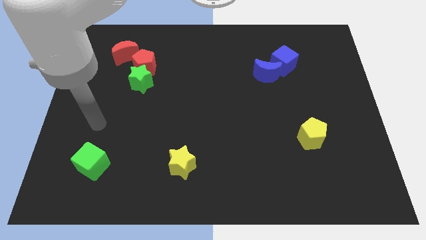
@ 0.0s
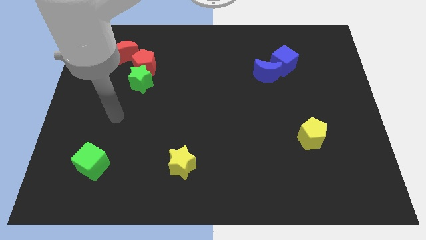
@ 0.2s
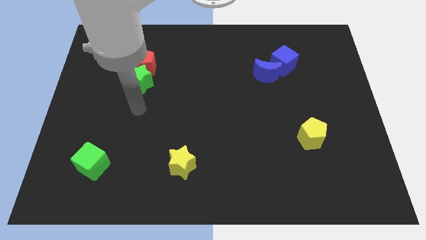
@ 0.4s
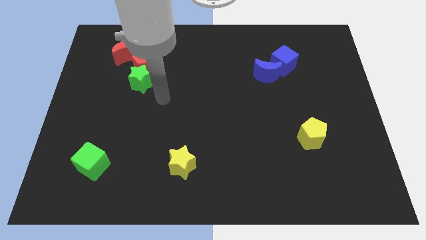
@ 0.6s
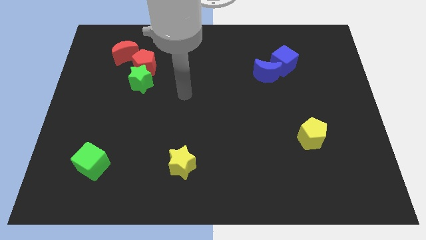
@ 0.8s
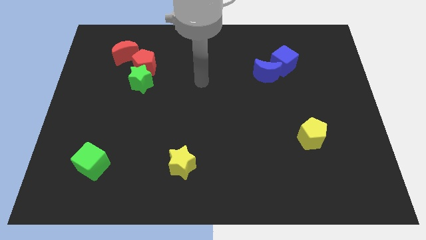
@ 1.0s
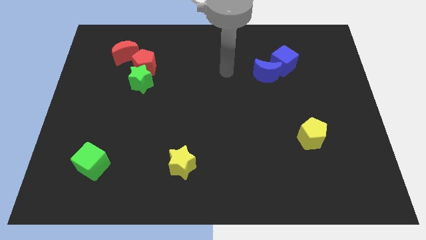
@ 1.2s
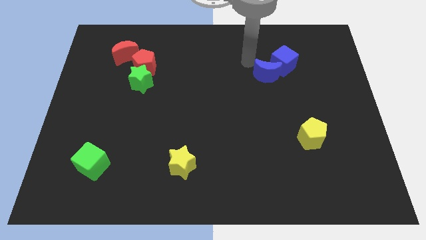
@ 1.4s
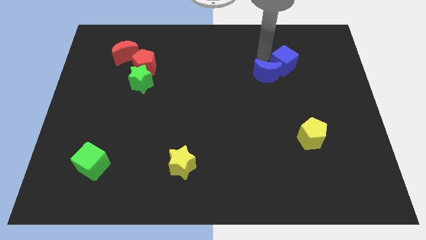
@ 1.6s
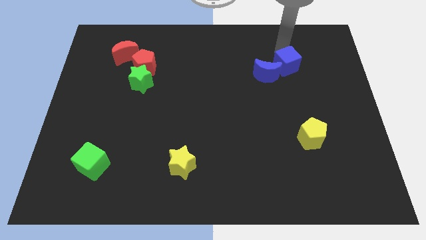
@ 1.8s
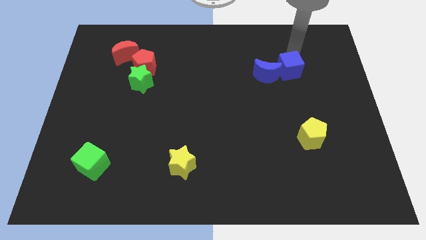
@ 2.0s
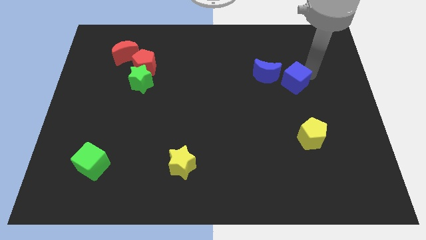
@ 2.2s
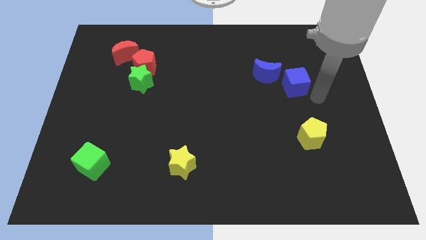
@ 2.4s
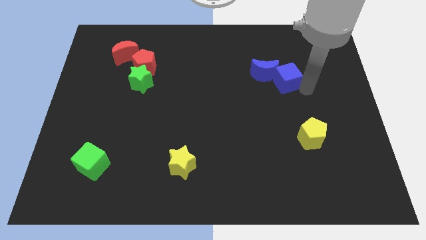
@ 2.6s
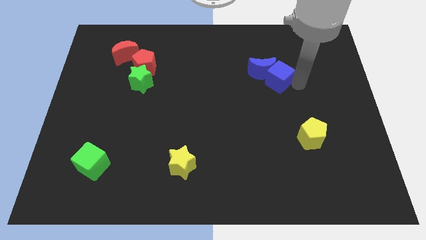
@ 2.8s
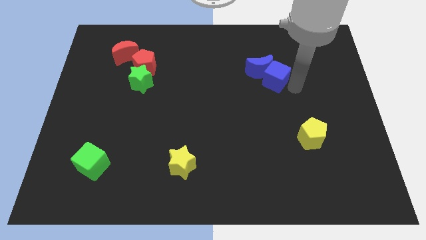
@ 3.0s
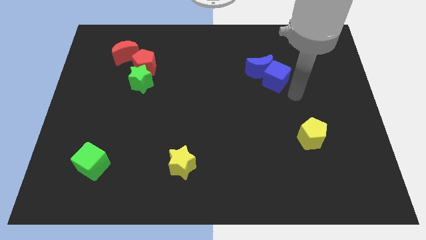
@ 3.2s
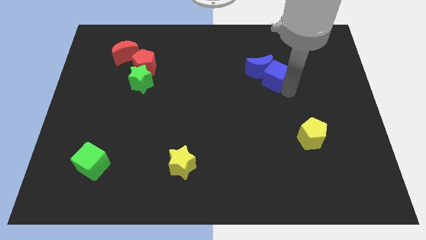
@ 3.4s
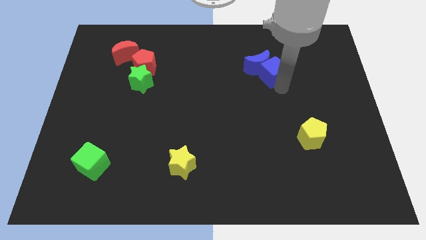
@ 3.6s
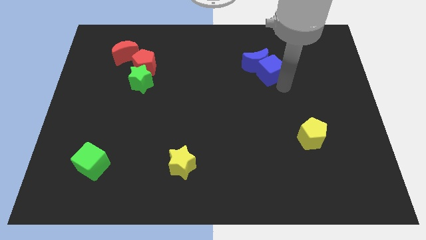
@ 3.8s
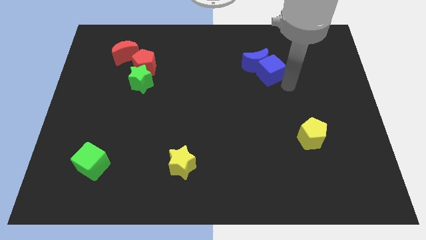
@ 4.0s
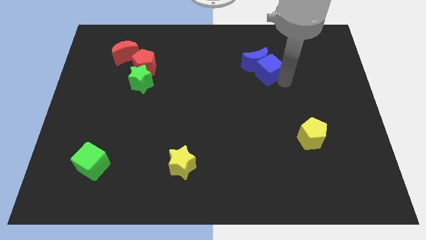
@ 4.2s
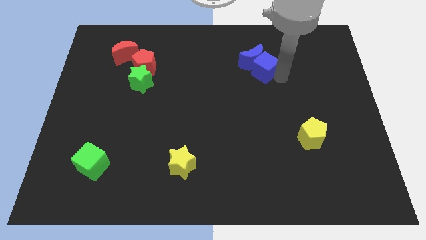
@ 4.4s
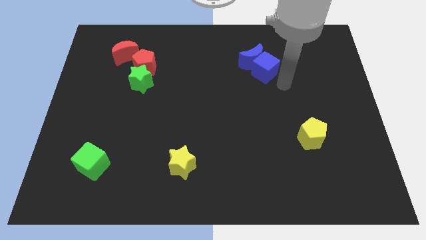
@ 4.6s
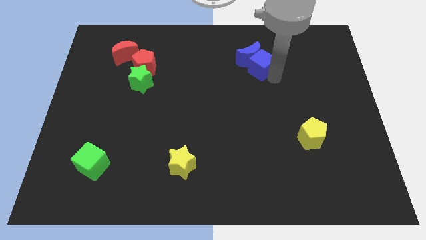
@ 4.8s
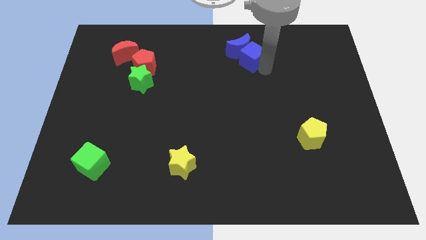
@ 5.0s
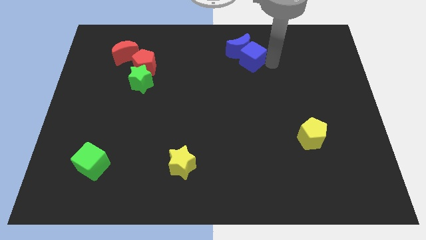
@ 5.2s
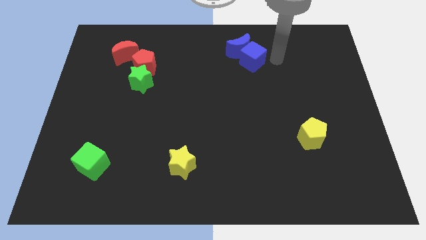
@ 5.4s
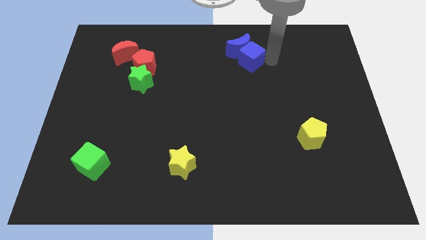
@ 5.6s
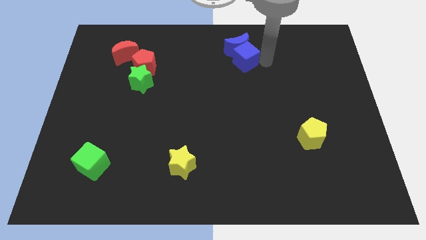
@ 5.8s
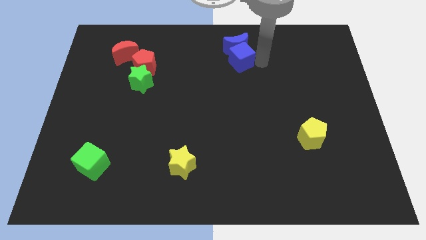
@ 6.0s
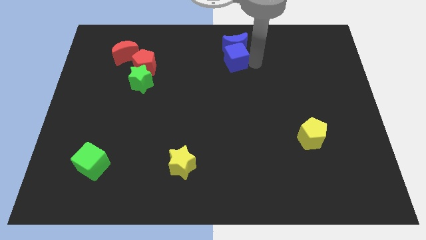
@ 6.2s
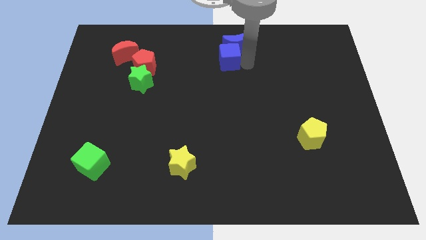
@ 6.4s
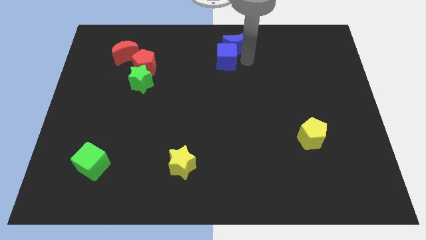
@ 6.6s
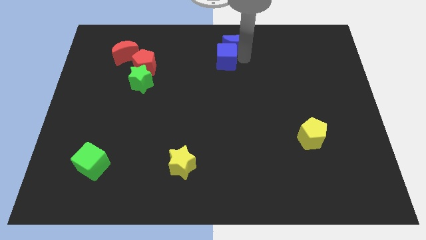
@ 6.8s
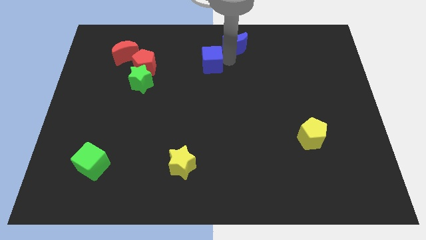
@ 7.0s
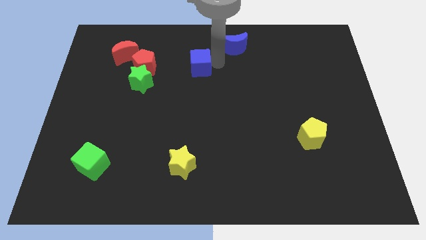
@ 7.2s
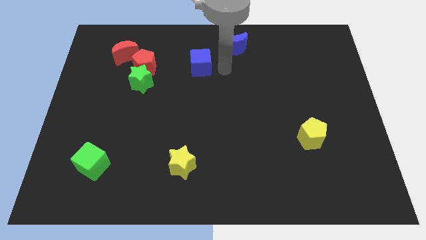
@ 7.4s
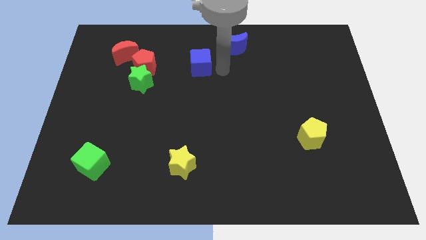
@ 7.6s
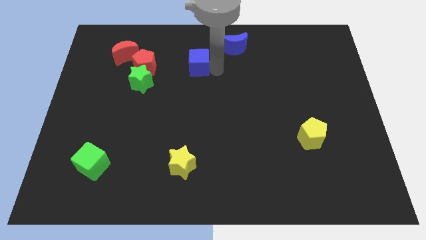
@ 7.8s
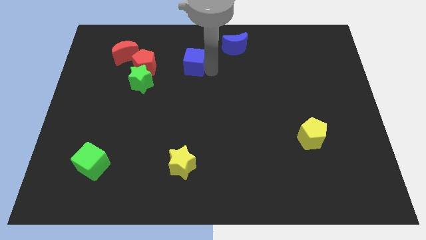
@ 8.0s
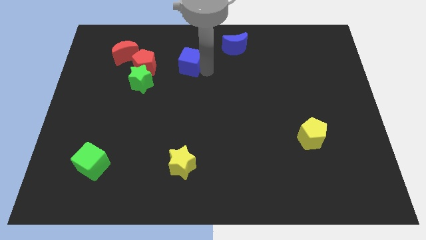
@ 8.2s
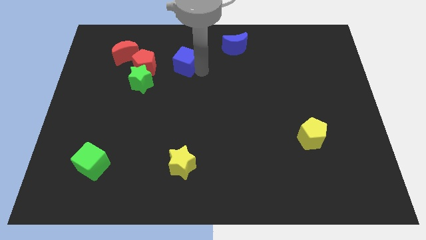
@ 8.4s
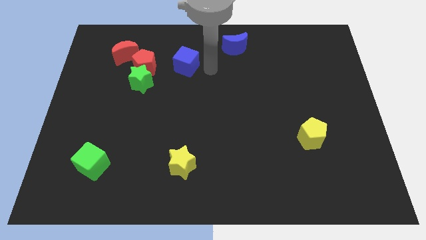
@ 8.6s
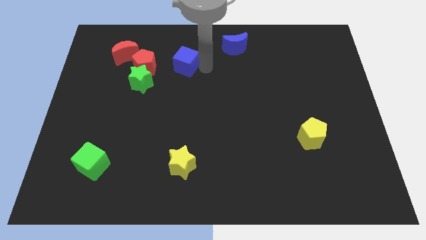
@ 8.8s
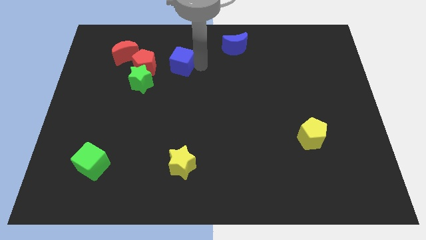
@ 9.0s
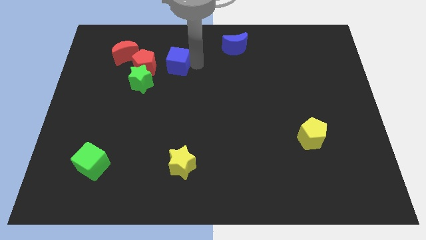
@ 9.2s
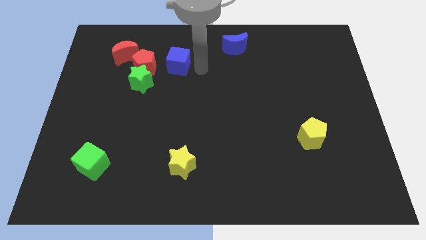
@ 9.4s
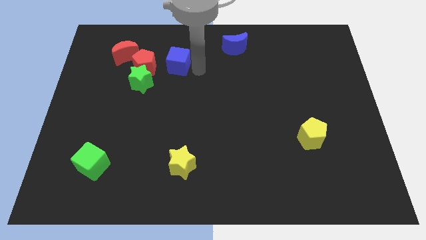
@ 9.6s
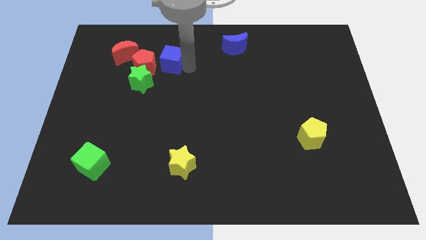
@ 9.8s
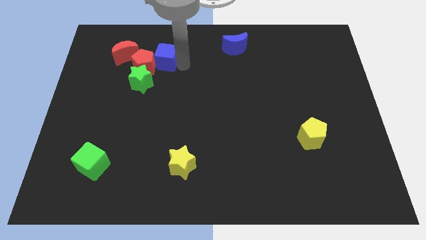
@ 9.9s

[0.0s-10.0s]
put the blue cube towards the red pentagon

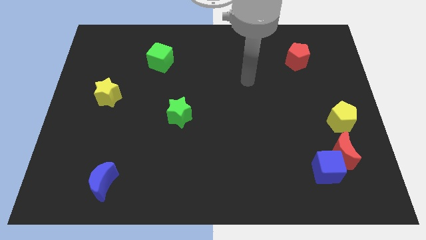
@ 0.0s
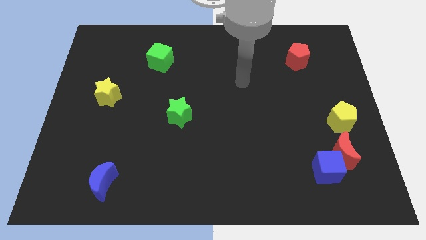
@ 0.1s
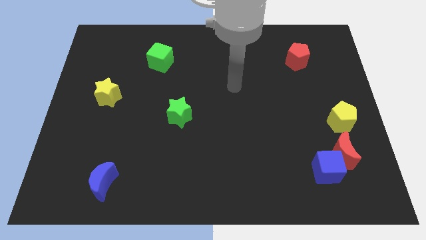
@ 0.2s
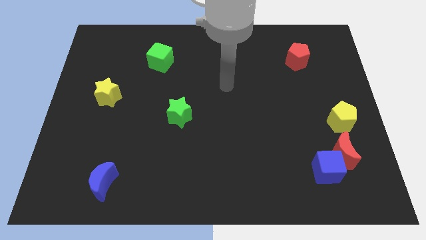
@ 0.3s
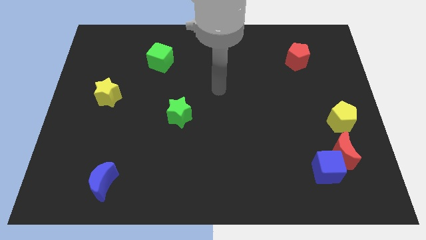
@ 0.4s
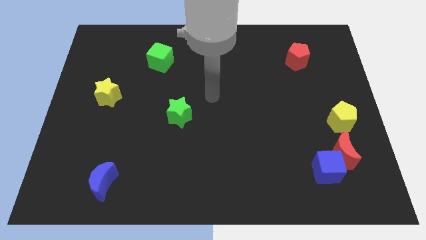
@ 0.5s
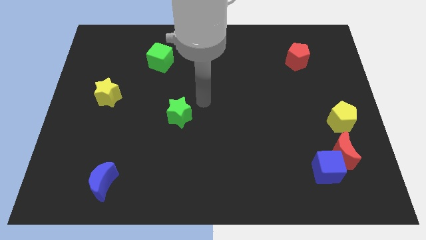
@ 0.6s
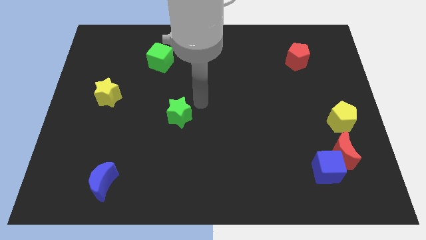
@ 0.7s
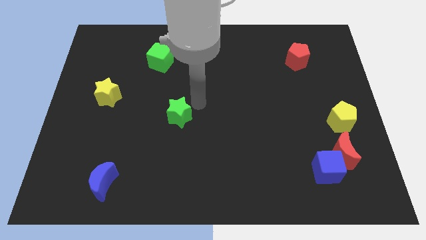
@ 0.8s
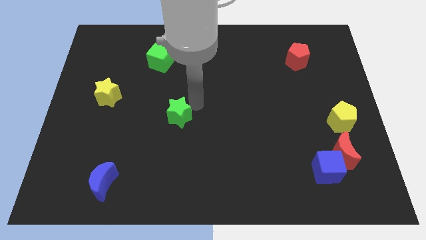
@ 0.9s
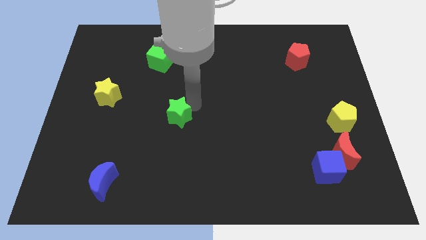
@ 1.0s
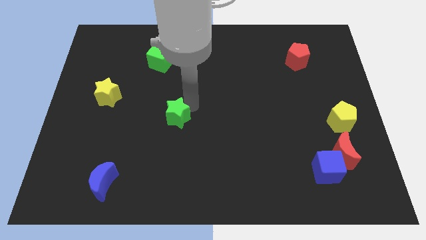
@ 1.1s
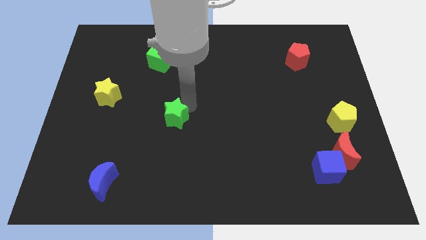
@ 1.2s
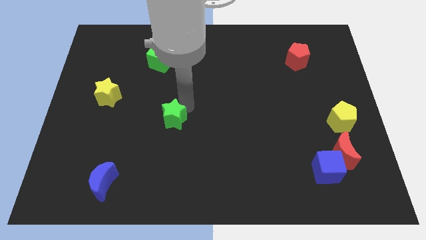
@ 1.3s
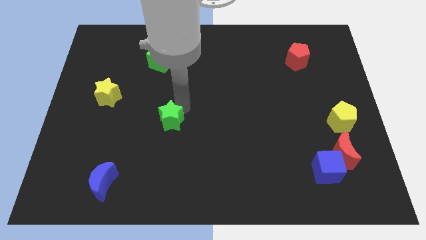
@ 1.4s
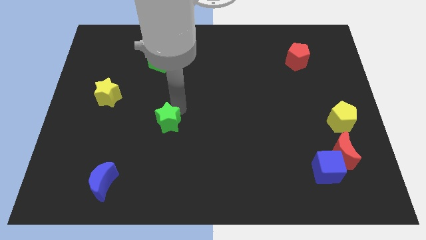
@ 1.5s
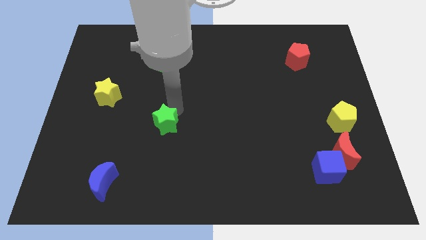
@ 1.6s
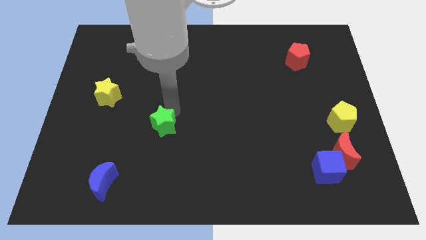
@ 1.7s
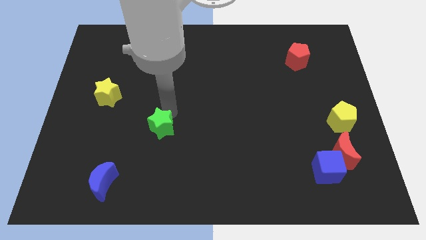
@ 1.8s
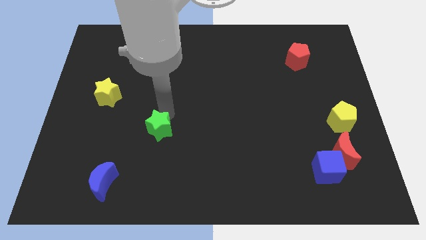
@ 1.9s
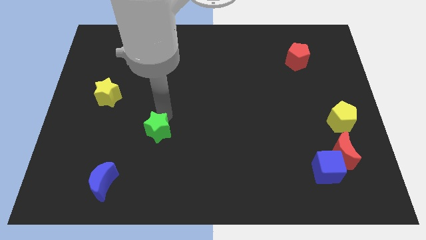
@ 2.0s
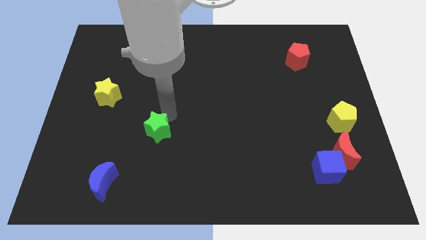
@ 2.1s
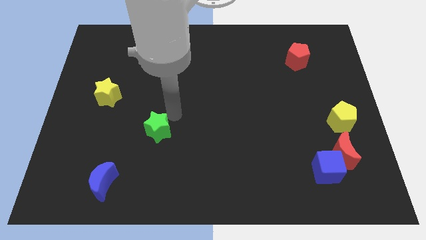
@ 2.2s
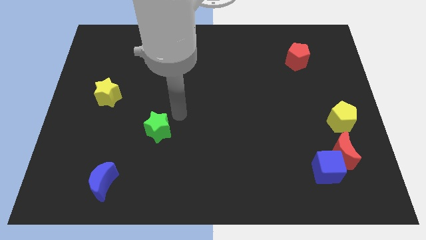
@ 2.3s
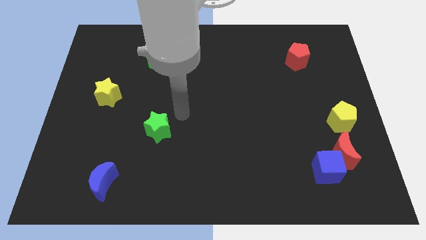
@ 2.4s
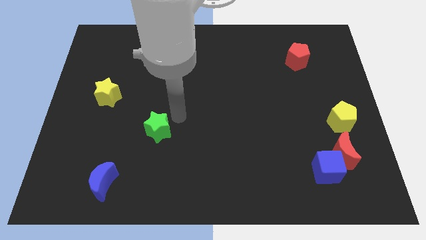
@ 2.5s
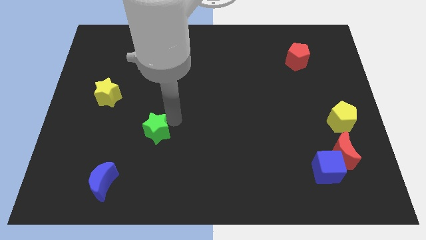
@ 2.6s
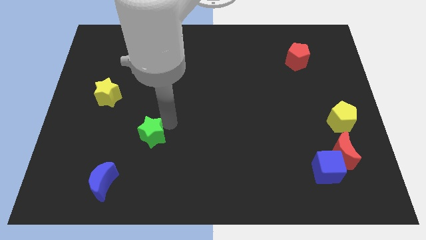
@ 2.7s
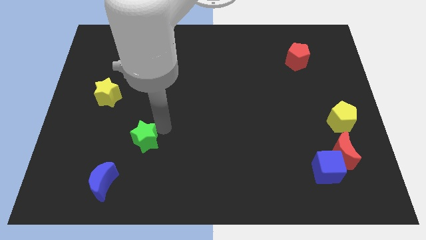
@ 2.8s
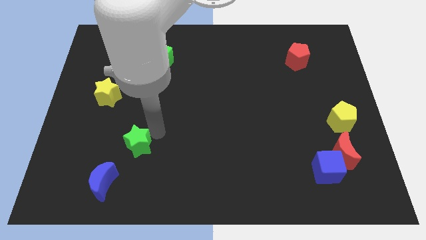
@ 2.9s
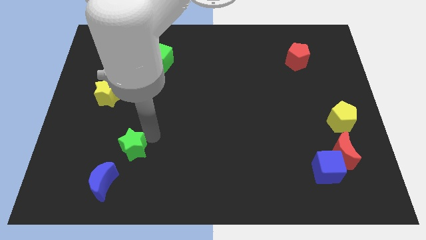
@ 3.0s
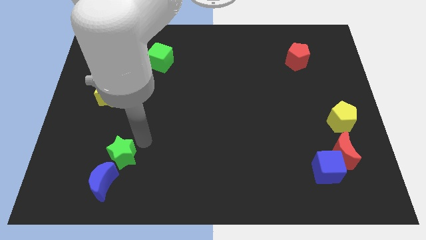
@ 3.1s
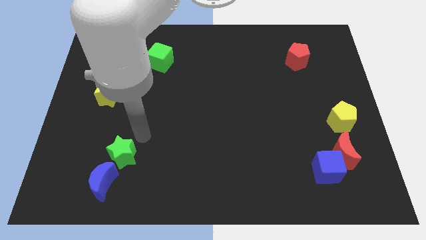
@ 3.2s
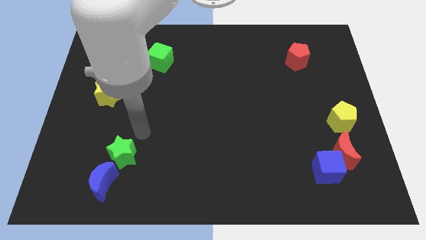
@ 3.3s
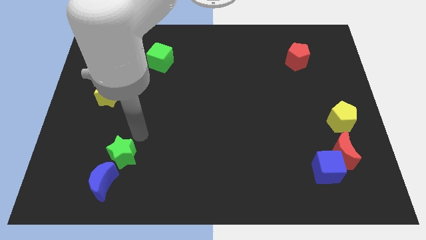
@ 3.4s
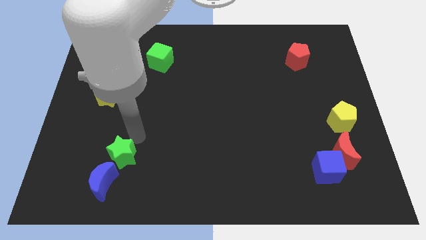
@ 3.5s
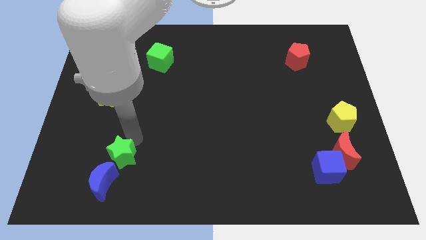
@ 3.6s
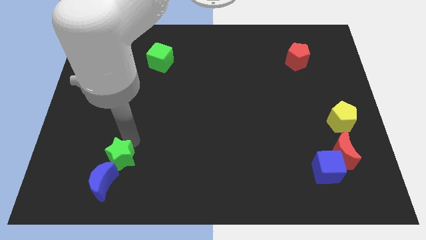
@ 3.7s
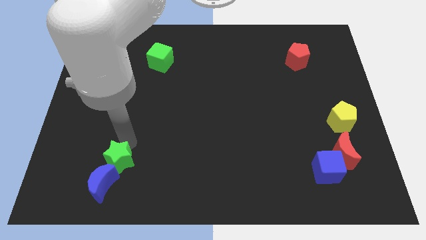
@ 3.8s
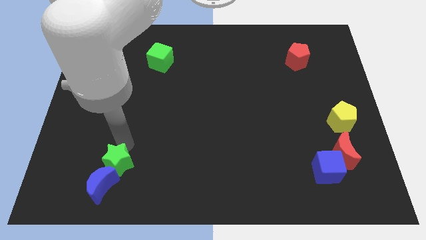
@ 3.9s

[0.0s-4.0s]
slide the green star to the blue moon
